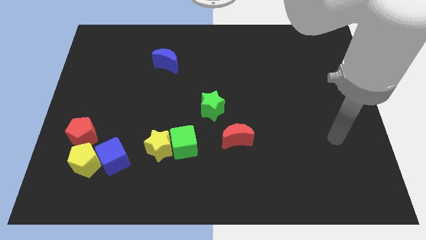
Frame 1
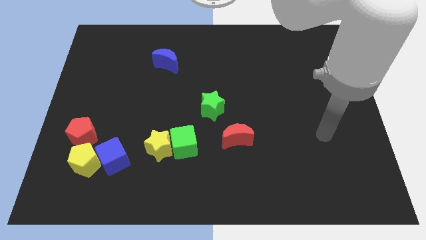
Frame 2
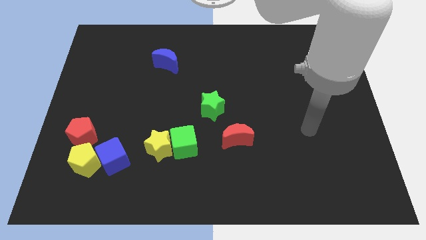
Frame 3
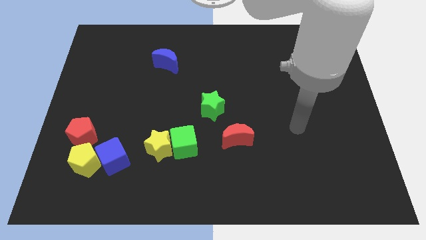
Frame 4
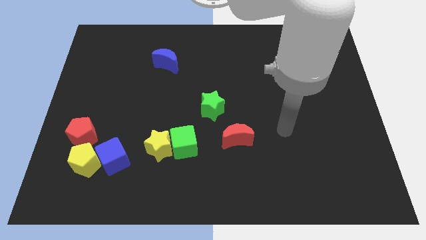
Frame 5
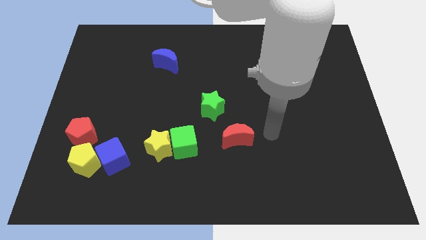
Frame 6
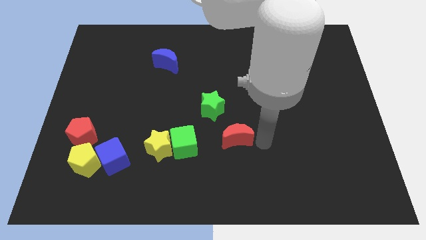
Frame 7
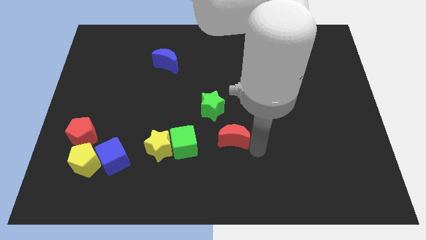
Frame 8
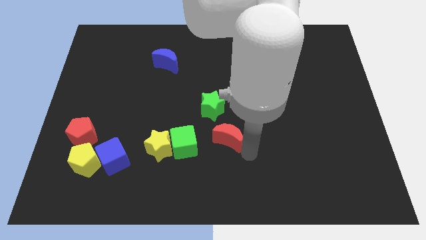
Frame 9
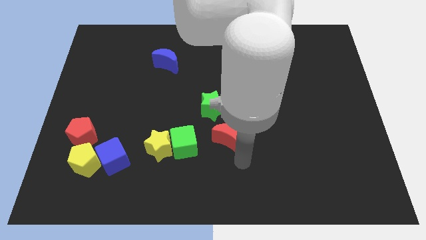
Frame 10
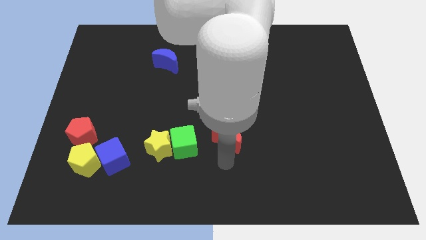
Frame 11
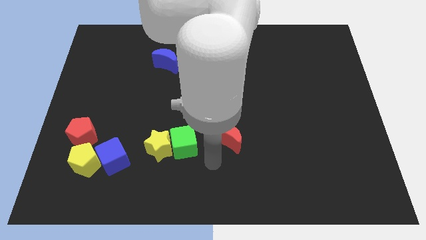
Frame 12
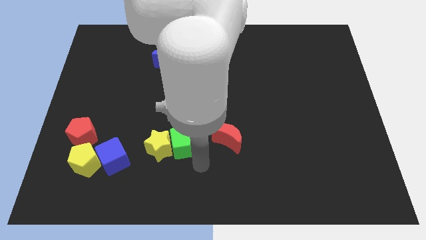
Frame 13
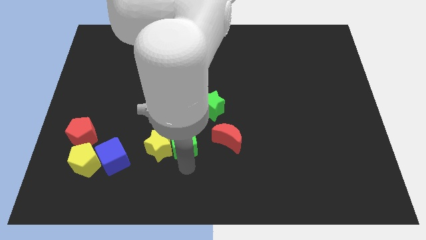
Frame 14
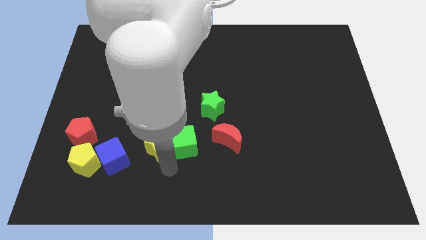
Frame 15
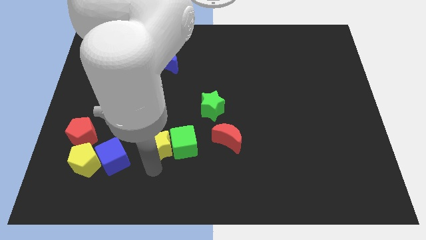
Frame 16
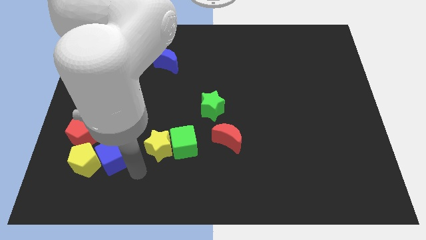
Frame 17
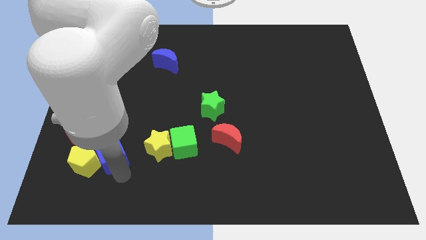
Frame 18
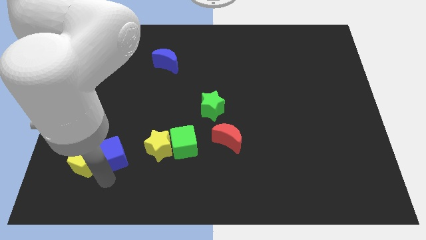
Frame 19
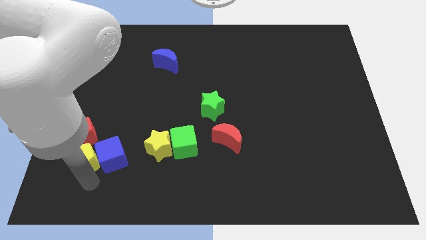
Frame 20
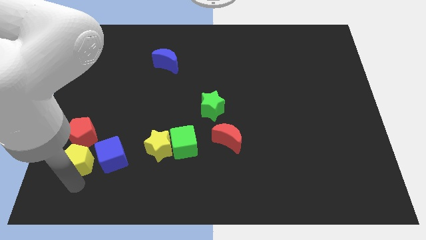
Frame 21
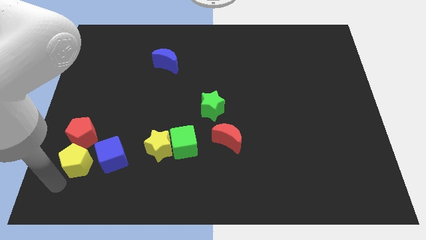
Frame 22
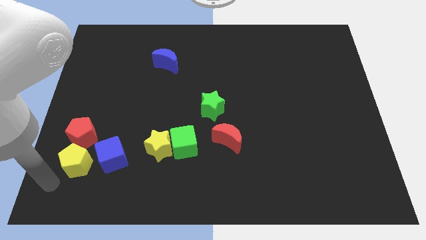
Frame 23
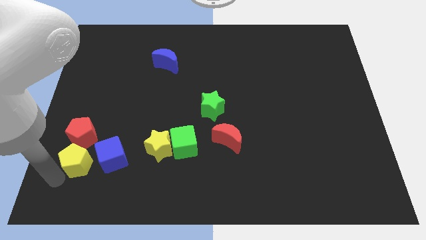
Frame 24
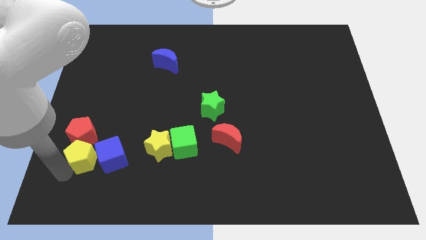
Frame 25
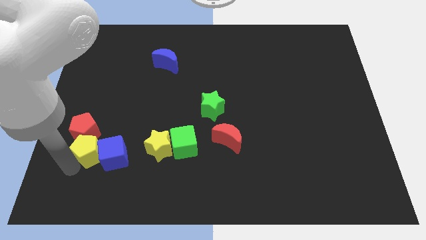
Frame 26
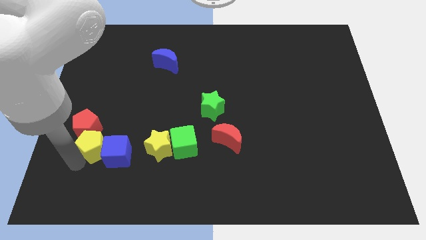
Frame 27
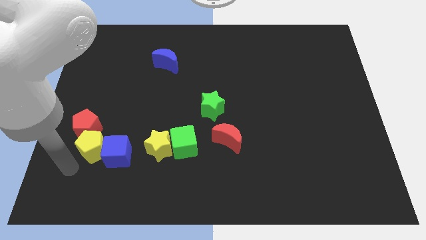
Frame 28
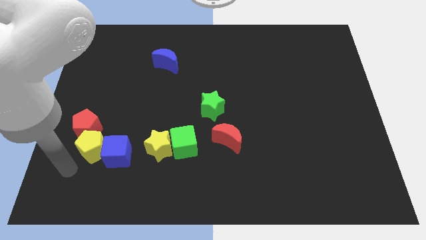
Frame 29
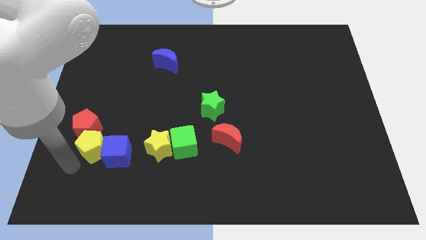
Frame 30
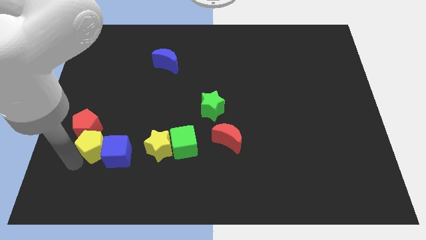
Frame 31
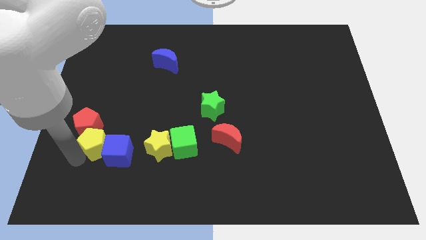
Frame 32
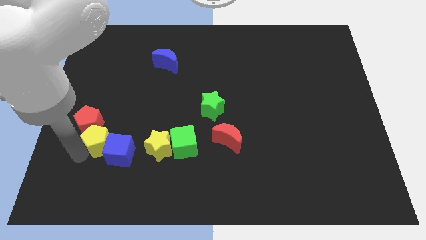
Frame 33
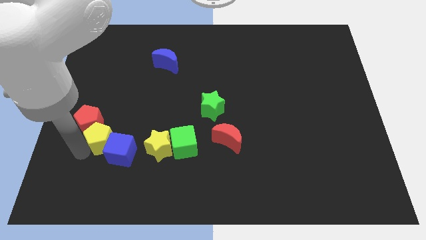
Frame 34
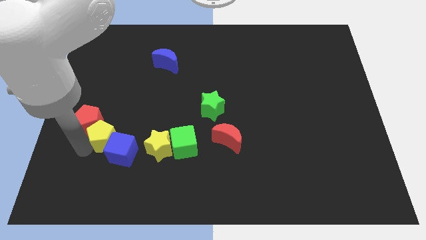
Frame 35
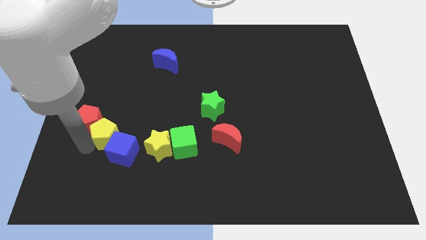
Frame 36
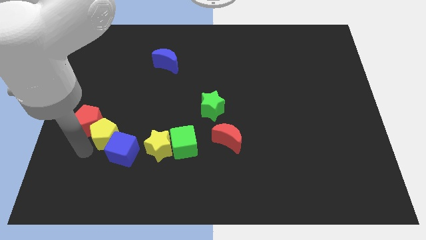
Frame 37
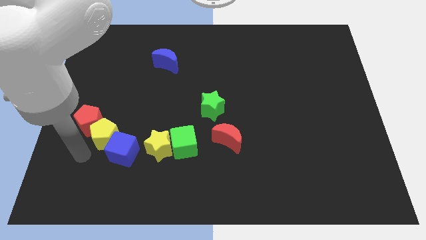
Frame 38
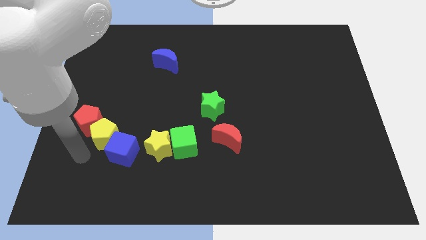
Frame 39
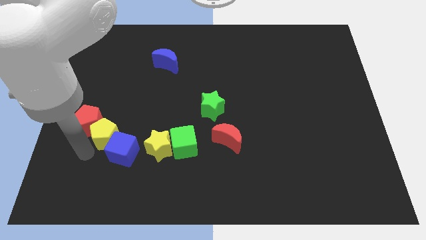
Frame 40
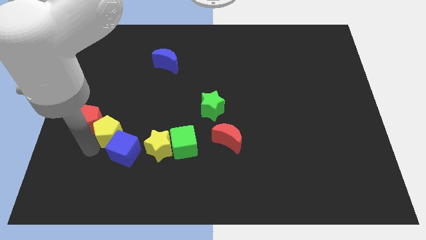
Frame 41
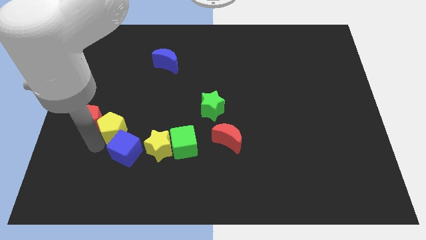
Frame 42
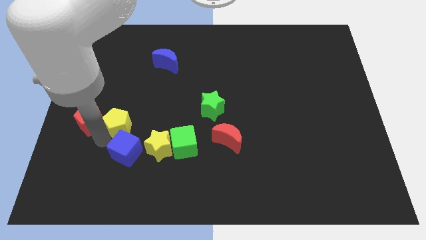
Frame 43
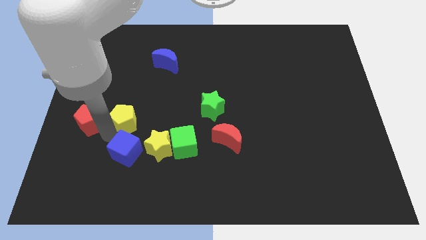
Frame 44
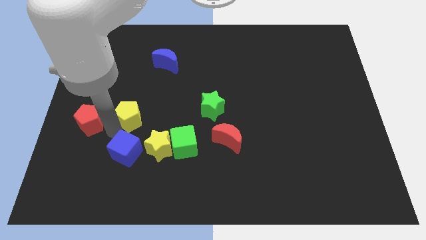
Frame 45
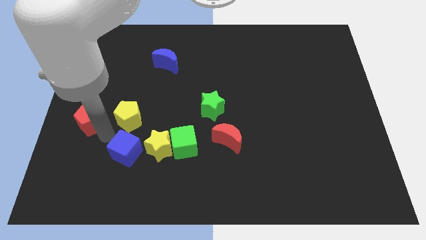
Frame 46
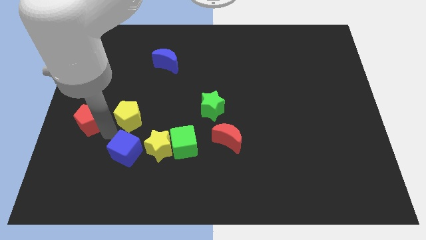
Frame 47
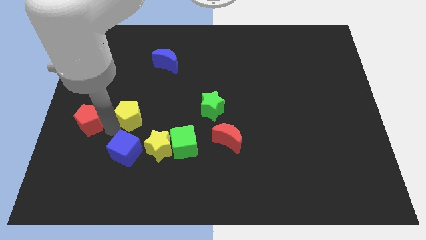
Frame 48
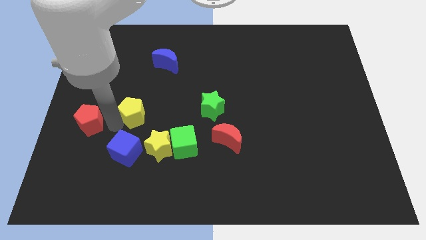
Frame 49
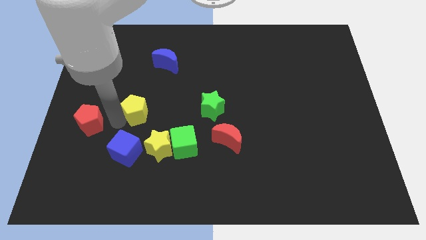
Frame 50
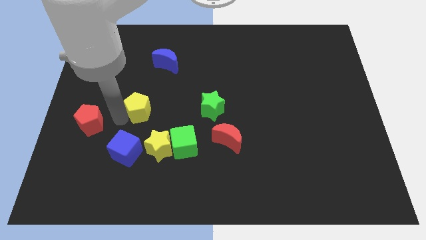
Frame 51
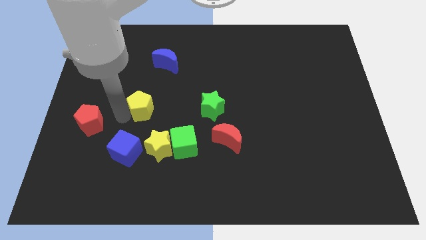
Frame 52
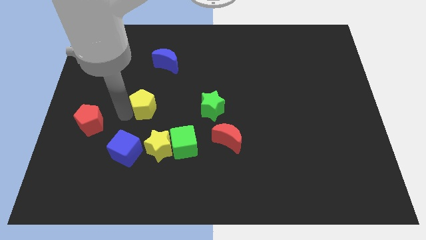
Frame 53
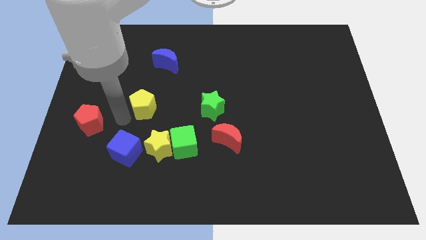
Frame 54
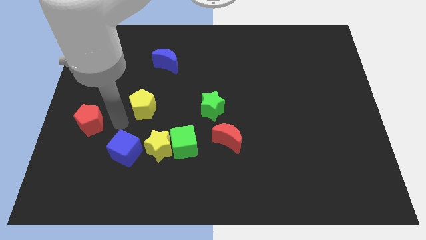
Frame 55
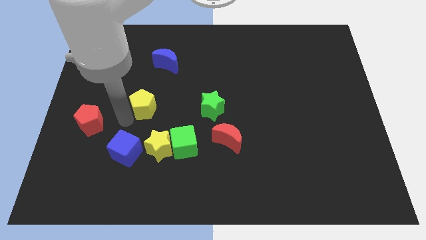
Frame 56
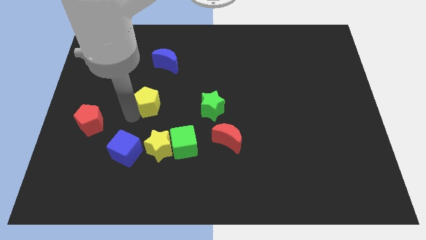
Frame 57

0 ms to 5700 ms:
push the yellow pentagon to the bottom of the blue moon
